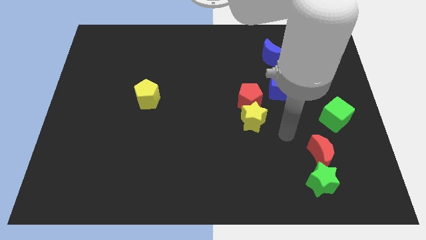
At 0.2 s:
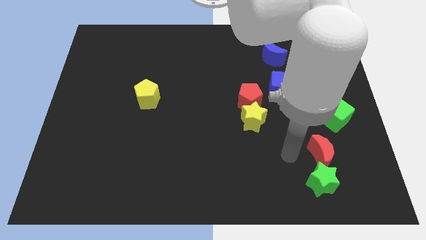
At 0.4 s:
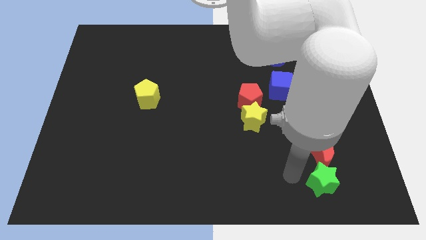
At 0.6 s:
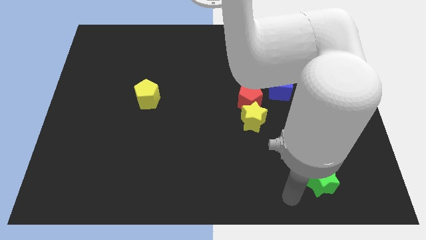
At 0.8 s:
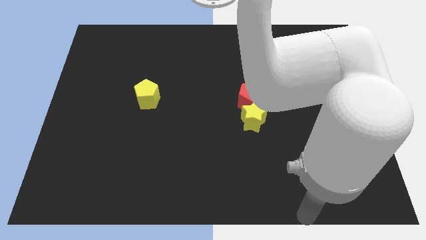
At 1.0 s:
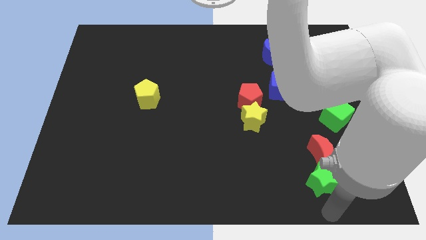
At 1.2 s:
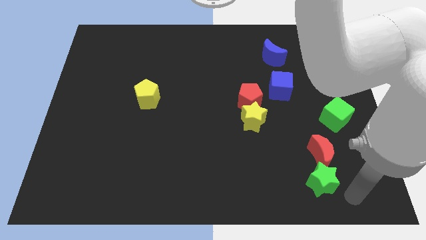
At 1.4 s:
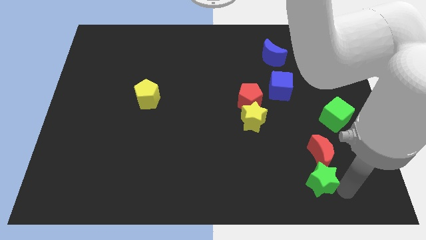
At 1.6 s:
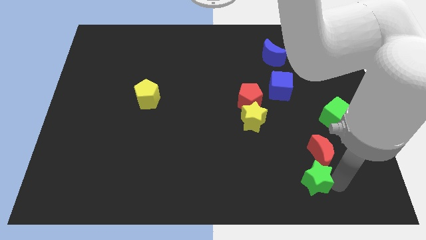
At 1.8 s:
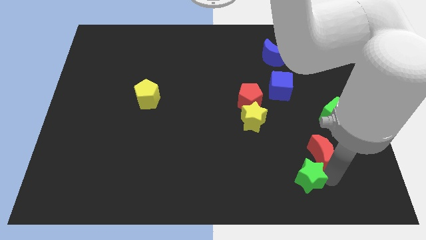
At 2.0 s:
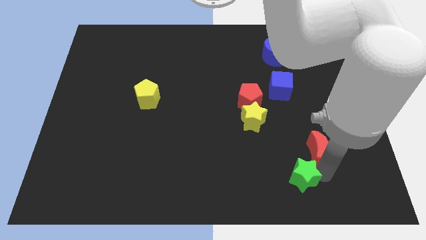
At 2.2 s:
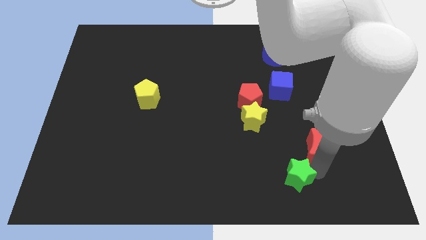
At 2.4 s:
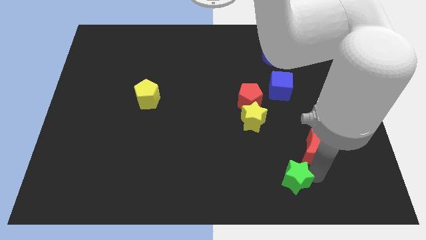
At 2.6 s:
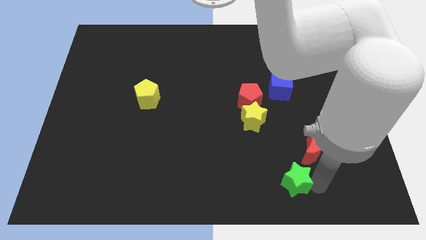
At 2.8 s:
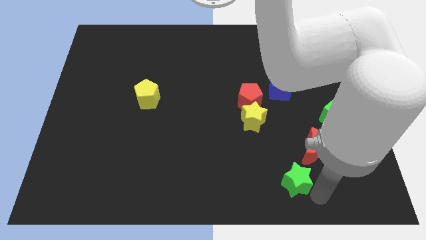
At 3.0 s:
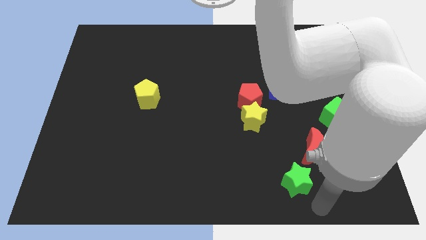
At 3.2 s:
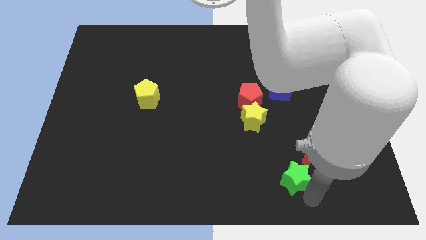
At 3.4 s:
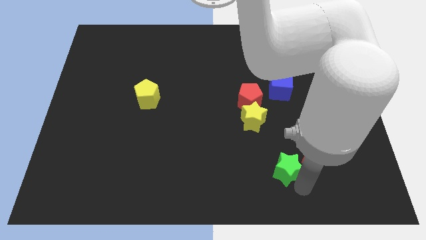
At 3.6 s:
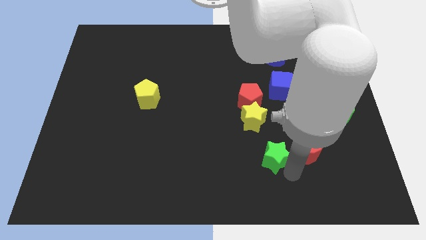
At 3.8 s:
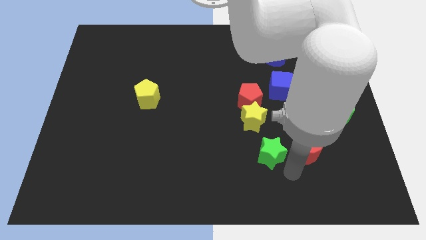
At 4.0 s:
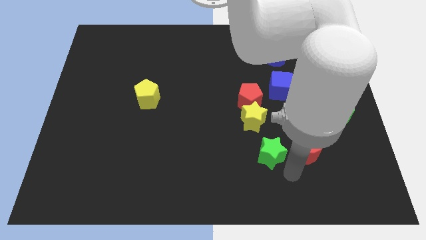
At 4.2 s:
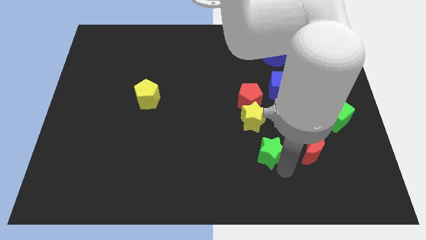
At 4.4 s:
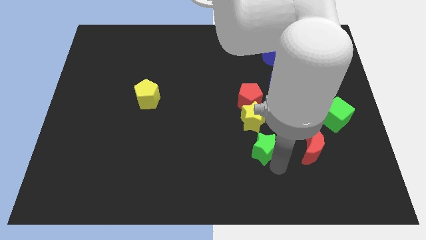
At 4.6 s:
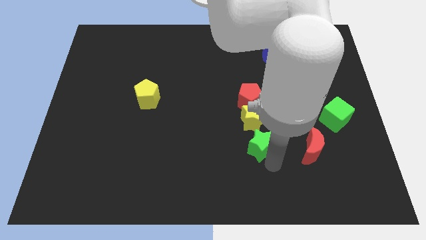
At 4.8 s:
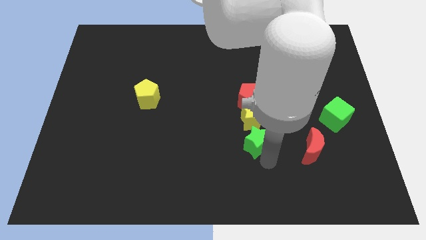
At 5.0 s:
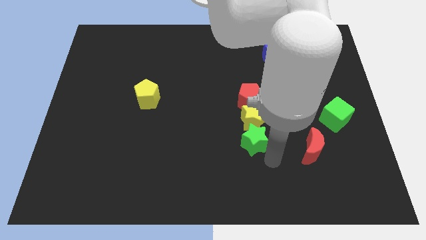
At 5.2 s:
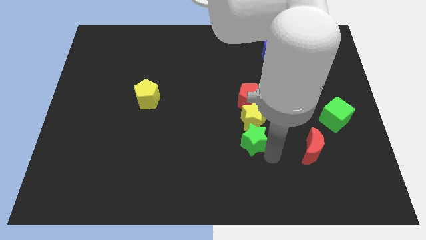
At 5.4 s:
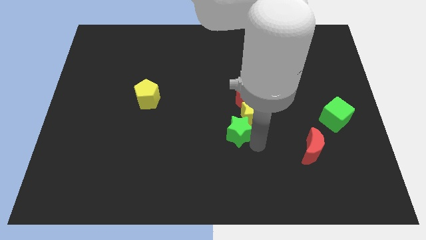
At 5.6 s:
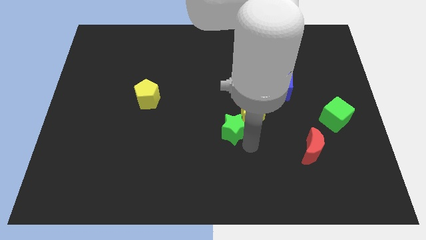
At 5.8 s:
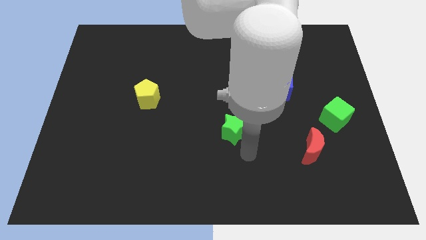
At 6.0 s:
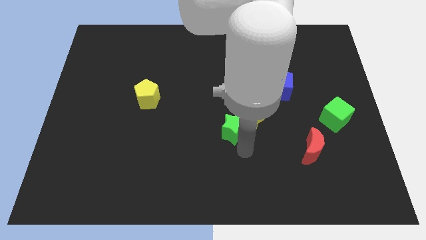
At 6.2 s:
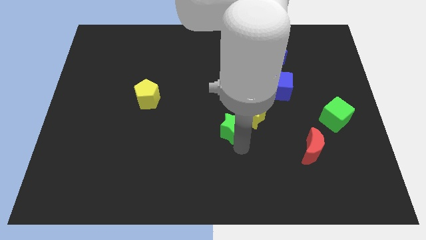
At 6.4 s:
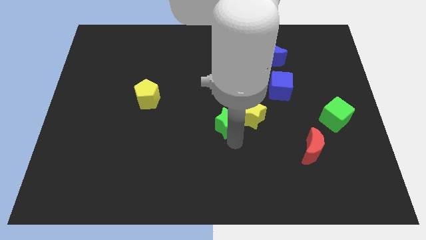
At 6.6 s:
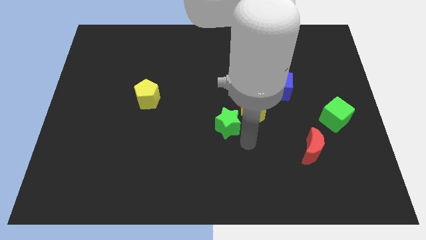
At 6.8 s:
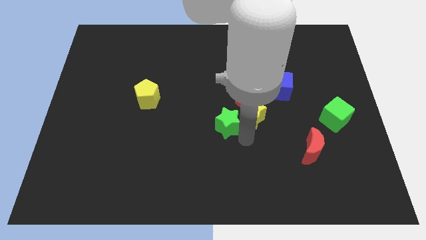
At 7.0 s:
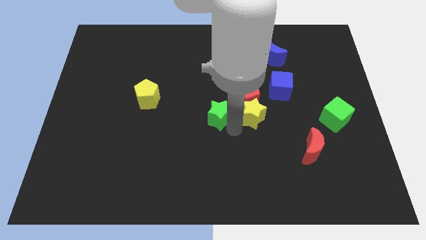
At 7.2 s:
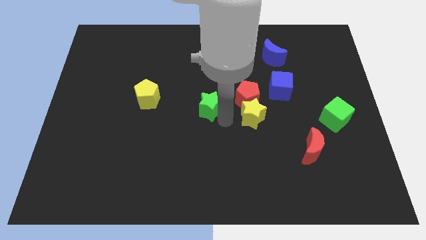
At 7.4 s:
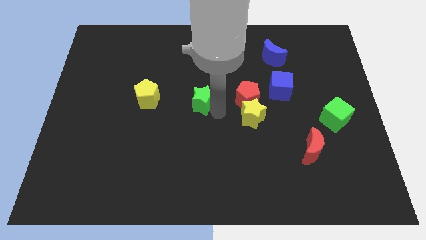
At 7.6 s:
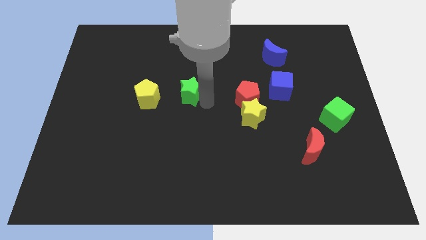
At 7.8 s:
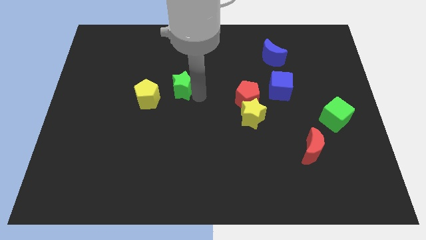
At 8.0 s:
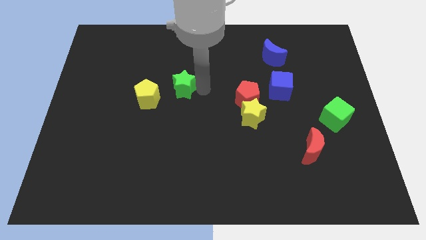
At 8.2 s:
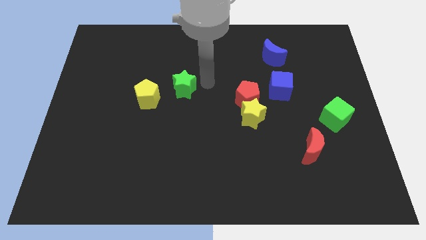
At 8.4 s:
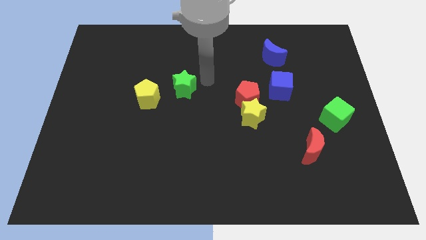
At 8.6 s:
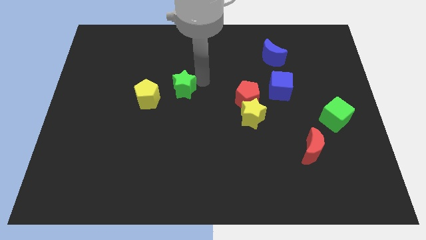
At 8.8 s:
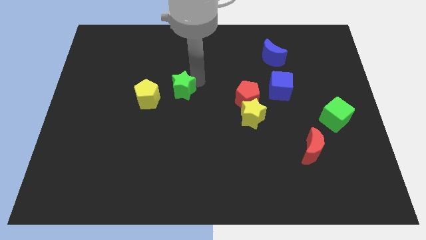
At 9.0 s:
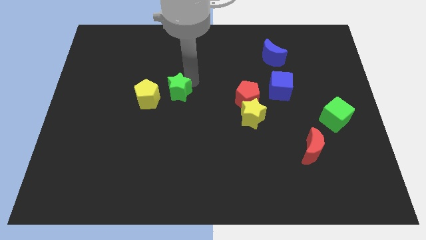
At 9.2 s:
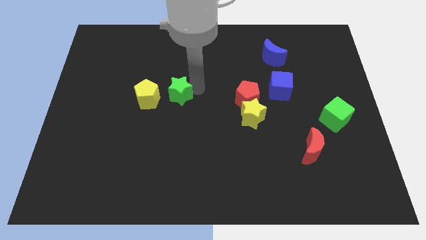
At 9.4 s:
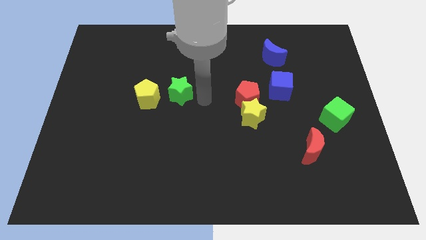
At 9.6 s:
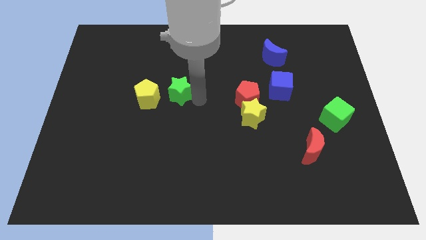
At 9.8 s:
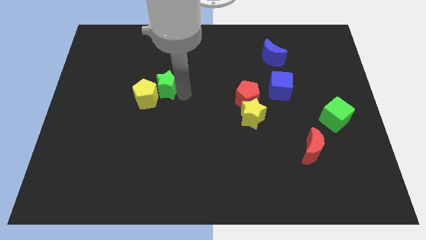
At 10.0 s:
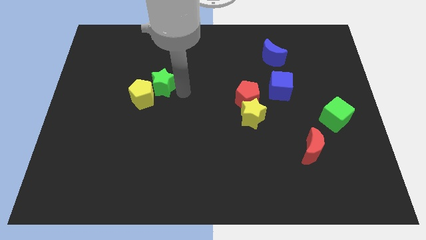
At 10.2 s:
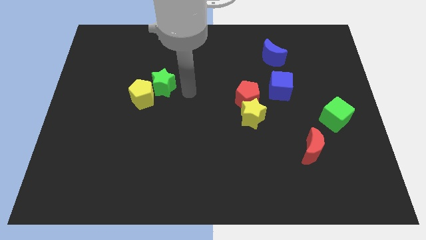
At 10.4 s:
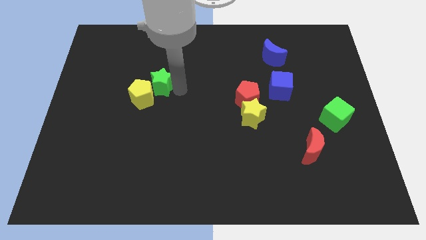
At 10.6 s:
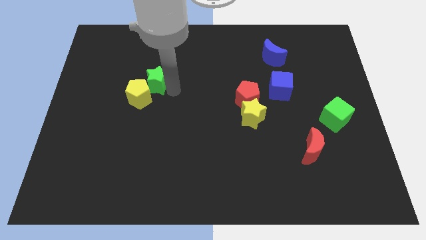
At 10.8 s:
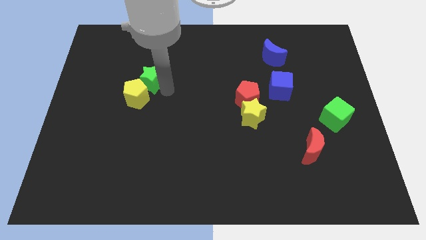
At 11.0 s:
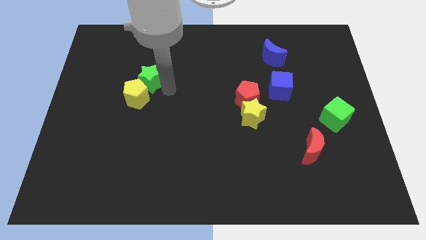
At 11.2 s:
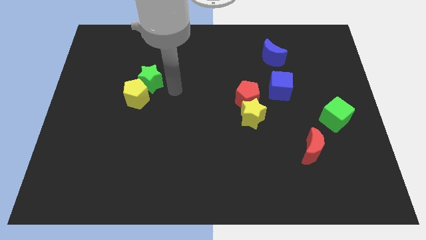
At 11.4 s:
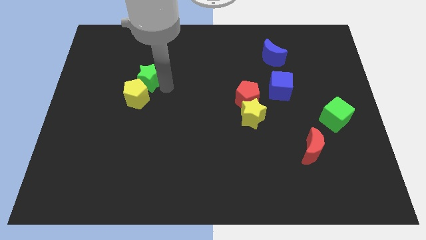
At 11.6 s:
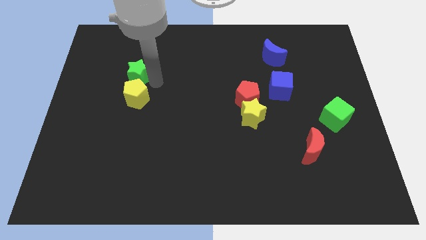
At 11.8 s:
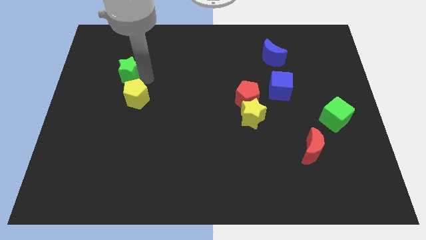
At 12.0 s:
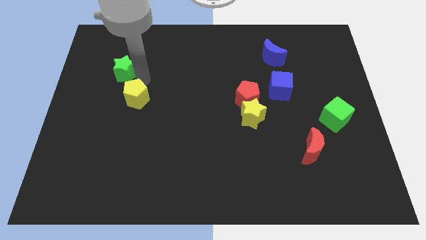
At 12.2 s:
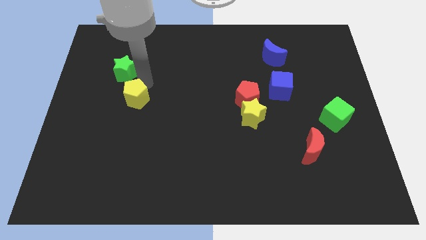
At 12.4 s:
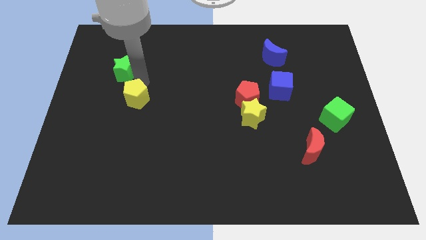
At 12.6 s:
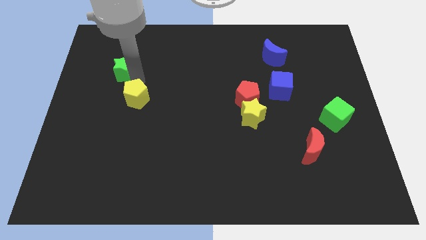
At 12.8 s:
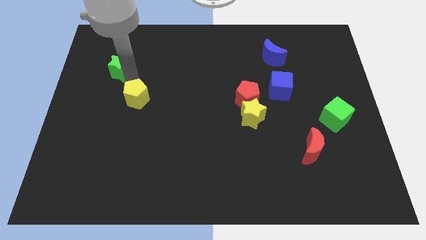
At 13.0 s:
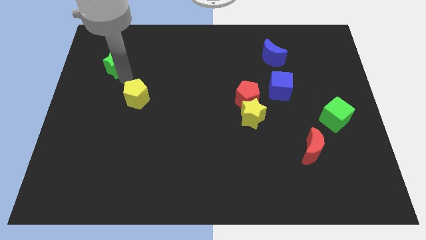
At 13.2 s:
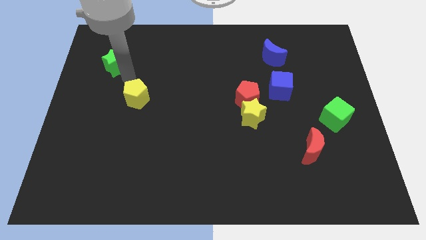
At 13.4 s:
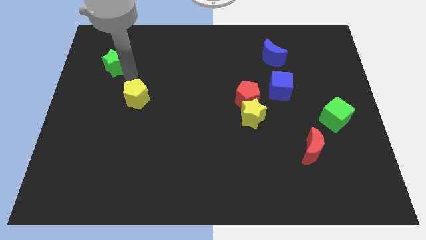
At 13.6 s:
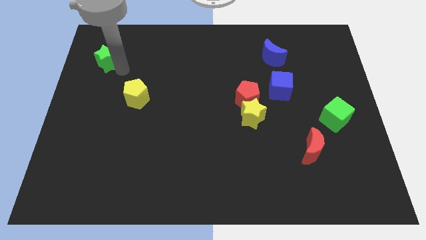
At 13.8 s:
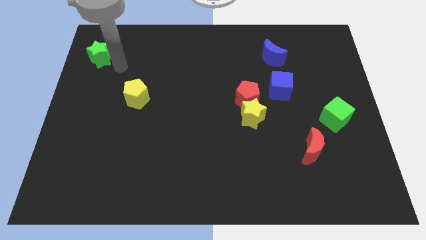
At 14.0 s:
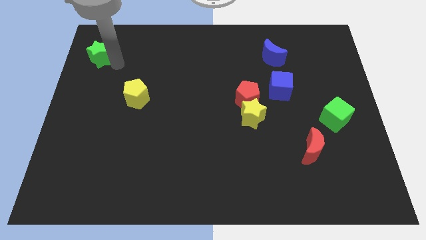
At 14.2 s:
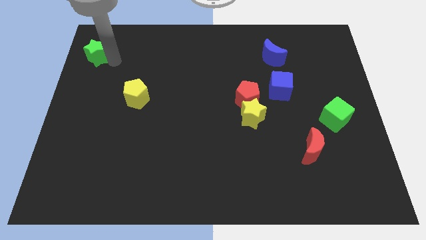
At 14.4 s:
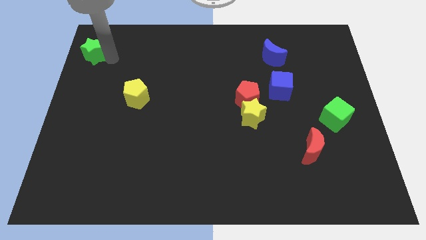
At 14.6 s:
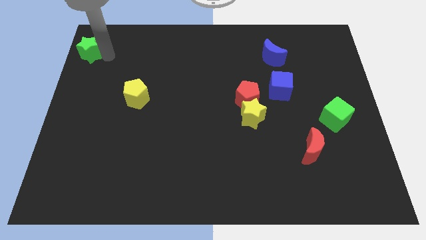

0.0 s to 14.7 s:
push the green star to the top left corner
